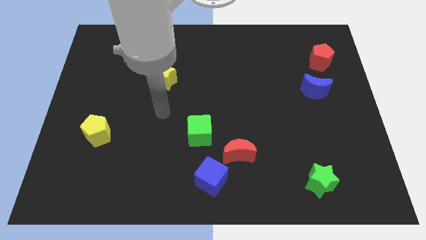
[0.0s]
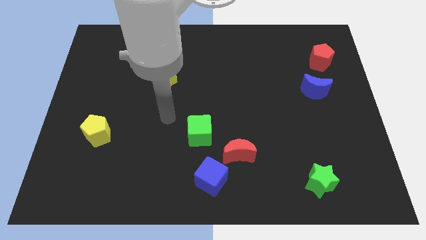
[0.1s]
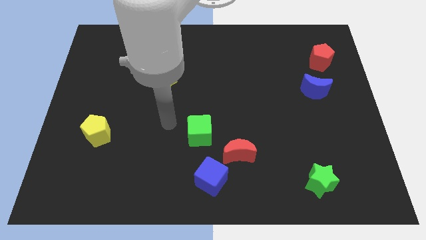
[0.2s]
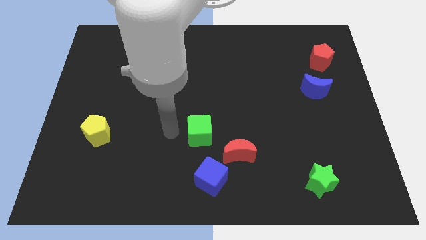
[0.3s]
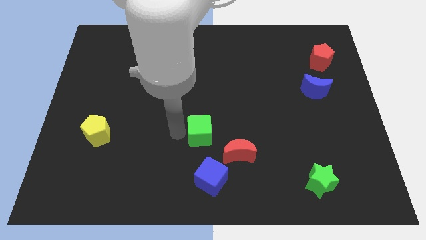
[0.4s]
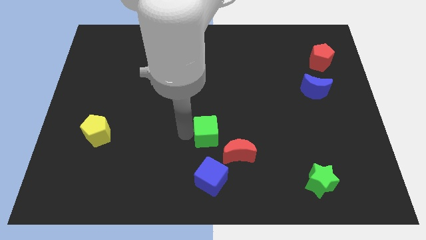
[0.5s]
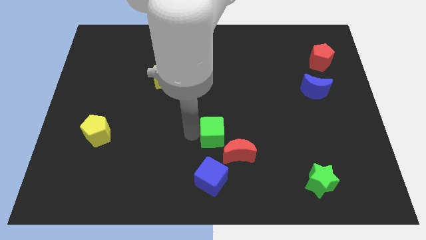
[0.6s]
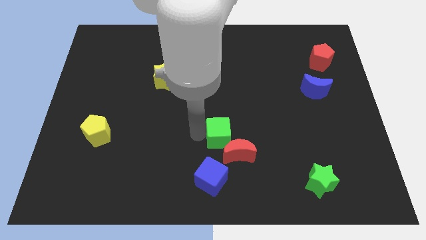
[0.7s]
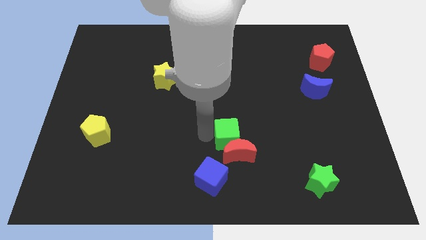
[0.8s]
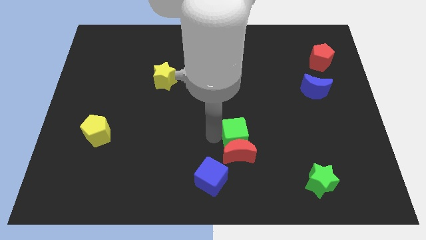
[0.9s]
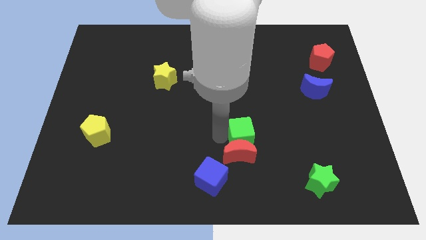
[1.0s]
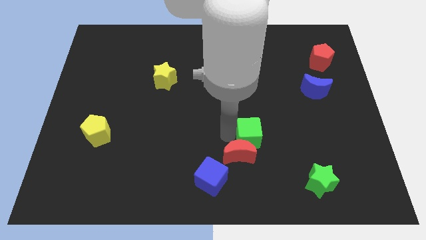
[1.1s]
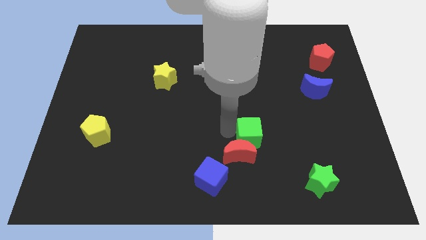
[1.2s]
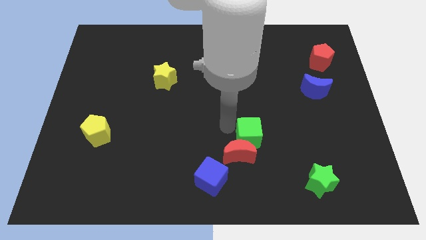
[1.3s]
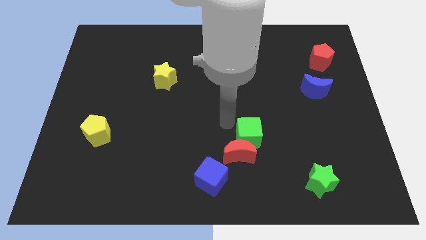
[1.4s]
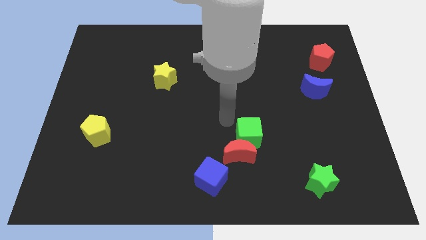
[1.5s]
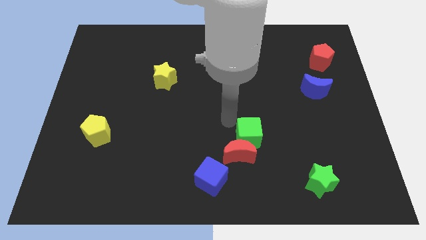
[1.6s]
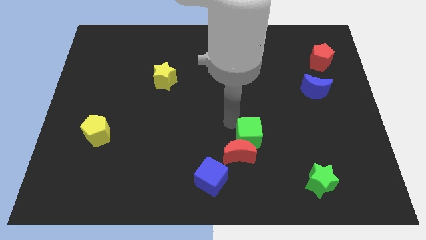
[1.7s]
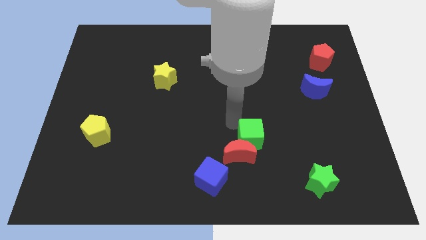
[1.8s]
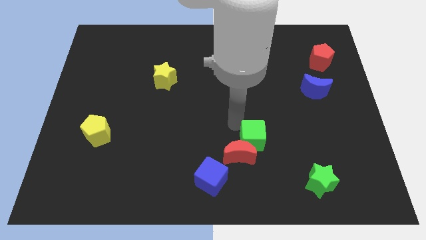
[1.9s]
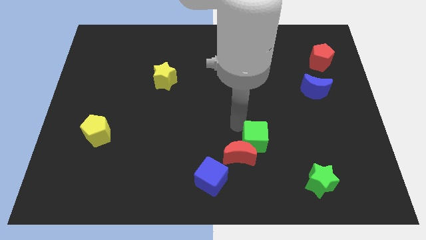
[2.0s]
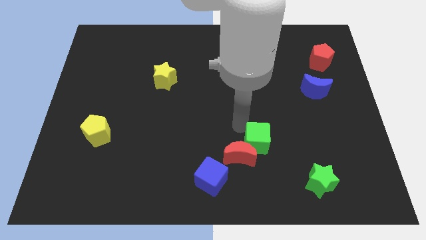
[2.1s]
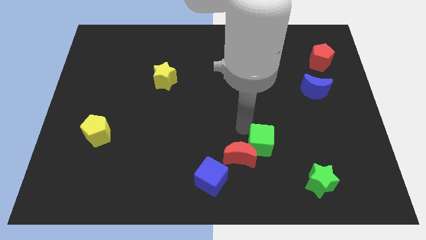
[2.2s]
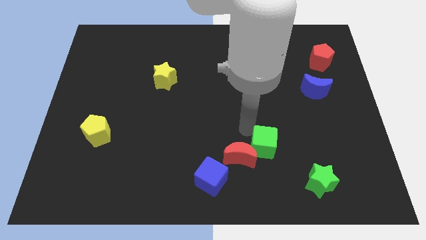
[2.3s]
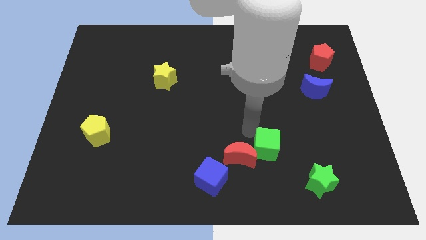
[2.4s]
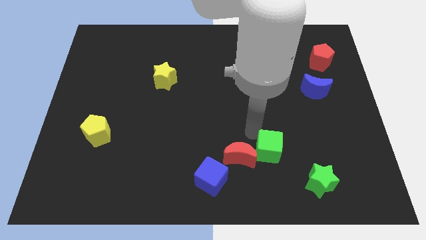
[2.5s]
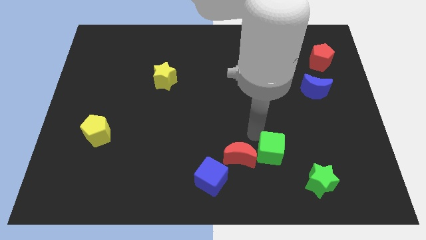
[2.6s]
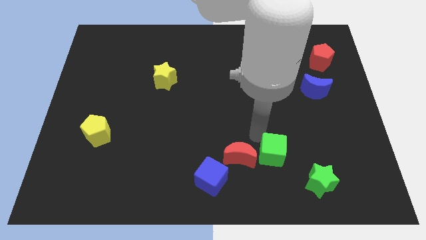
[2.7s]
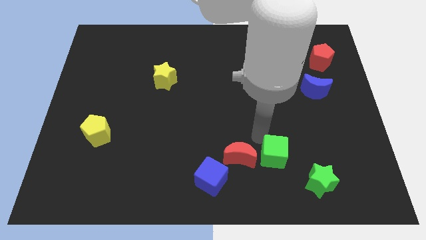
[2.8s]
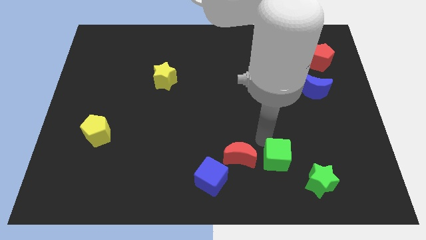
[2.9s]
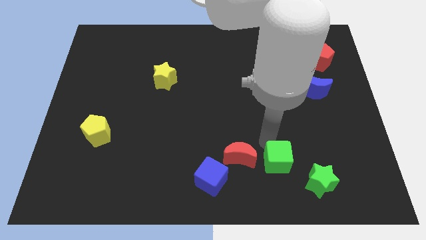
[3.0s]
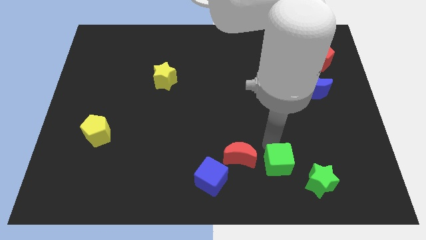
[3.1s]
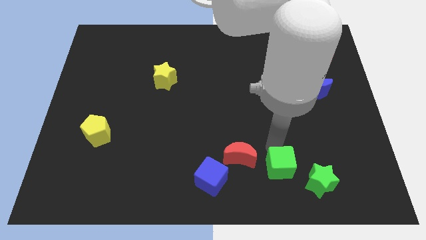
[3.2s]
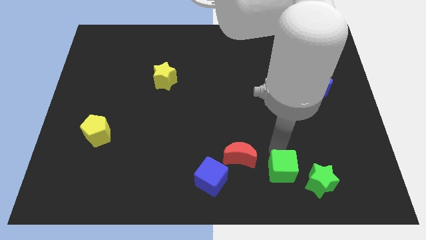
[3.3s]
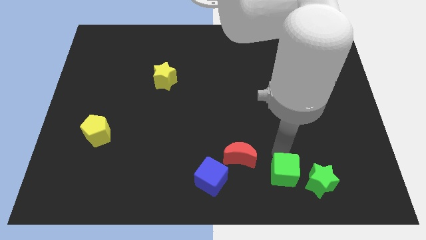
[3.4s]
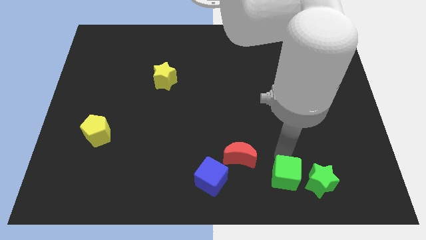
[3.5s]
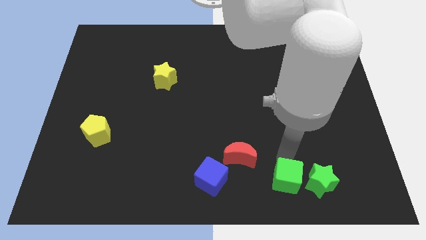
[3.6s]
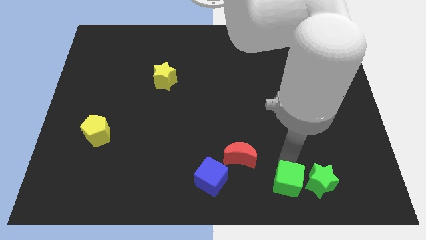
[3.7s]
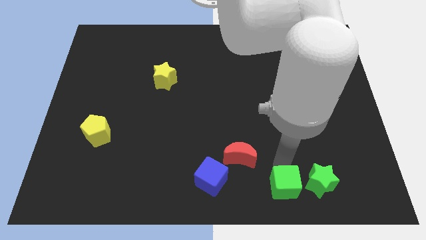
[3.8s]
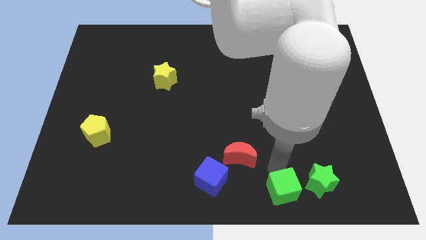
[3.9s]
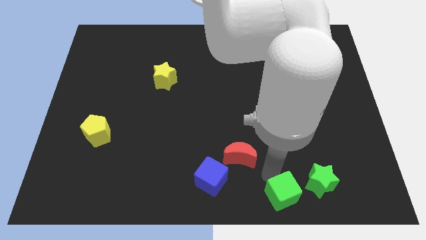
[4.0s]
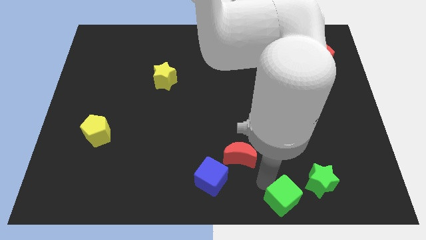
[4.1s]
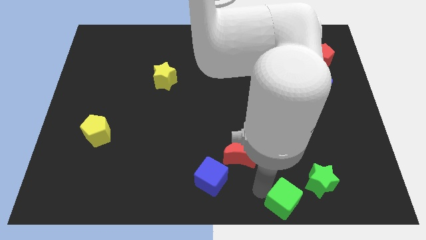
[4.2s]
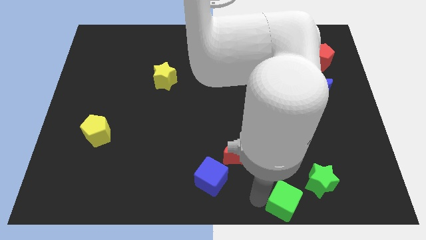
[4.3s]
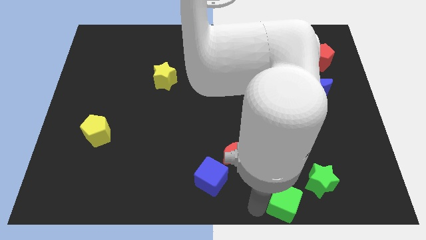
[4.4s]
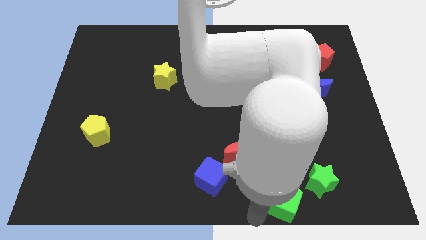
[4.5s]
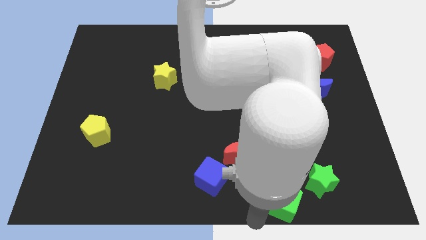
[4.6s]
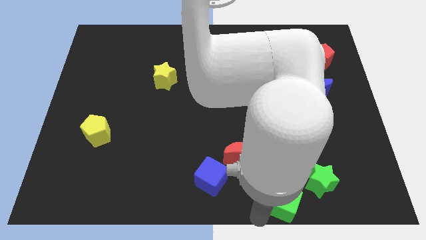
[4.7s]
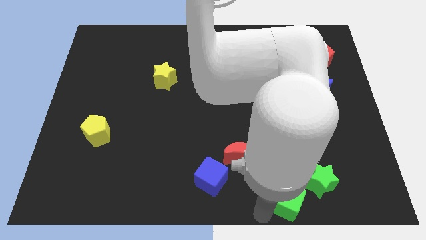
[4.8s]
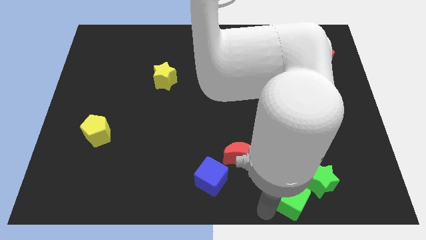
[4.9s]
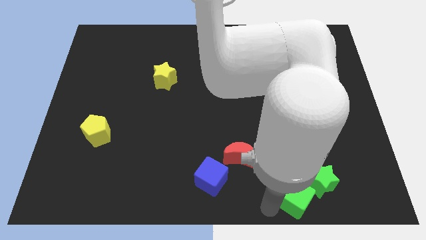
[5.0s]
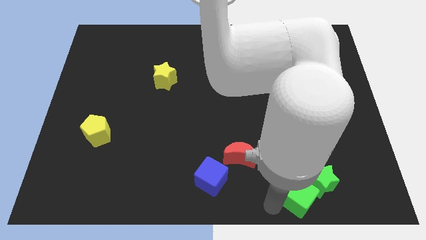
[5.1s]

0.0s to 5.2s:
move the green cube towards the green star
